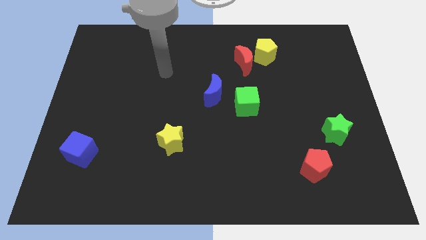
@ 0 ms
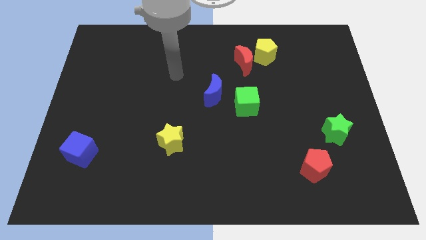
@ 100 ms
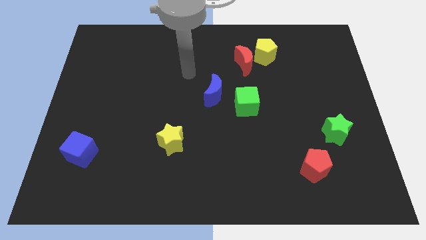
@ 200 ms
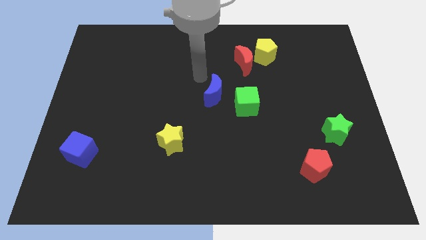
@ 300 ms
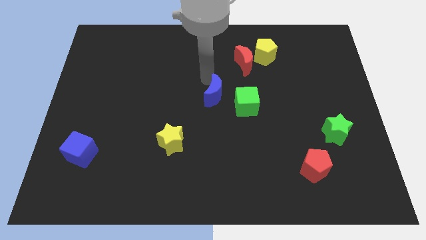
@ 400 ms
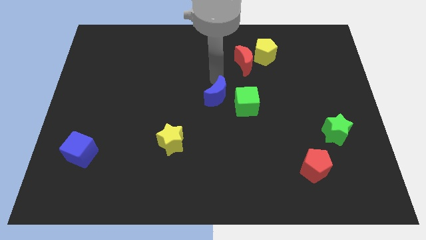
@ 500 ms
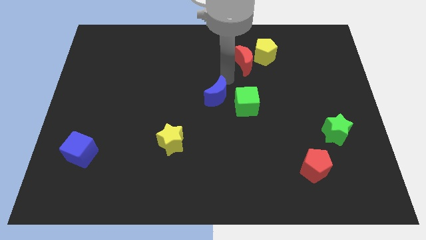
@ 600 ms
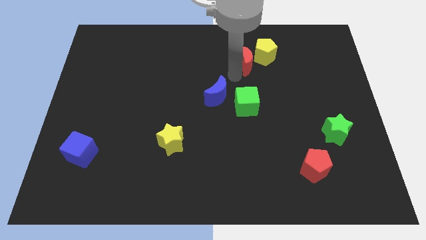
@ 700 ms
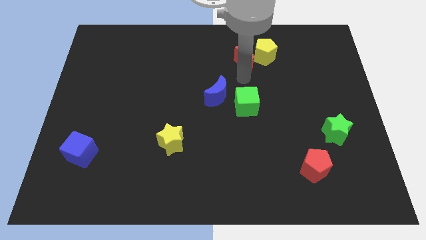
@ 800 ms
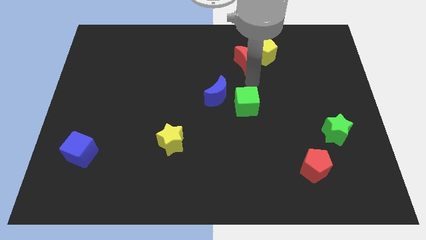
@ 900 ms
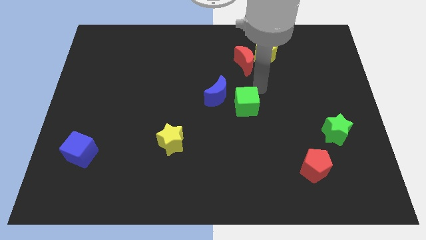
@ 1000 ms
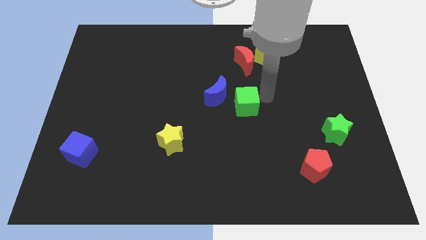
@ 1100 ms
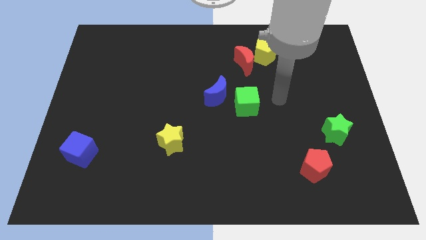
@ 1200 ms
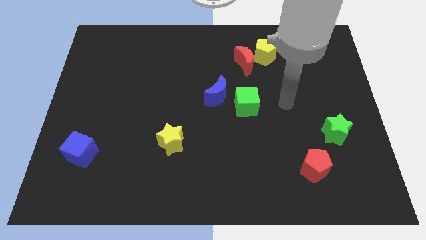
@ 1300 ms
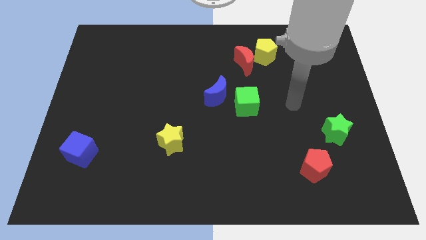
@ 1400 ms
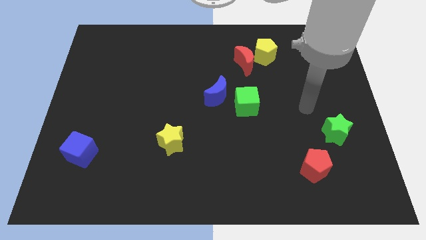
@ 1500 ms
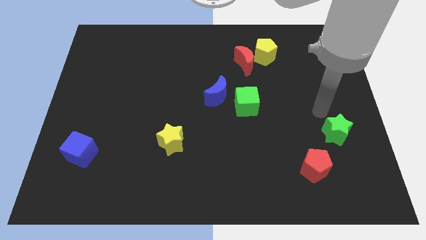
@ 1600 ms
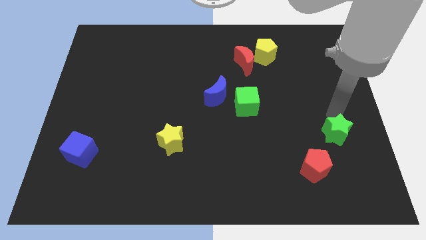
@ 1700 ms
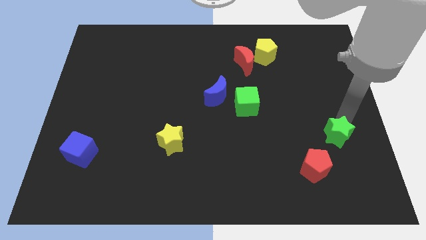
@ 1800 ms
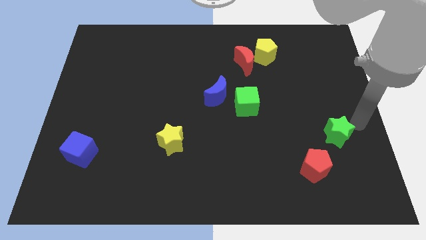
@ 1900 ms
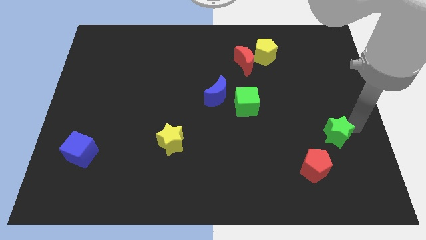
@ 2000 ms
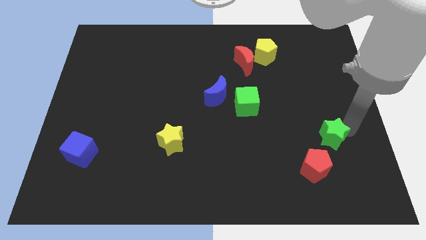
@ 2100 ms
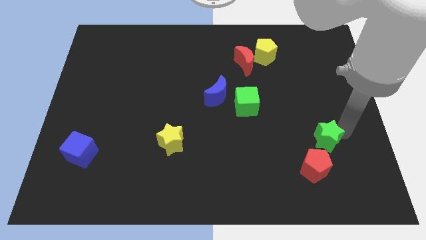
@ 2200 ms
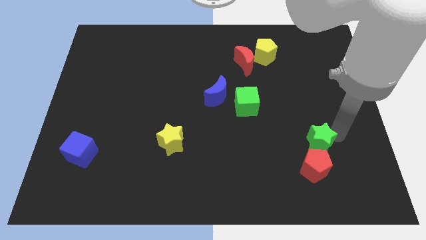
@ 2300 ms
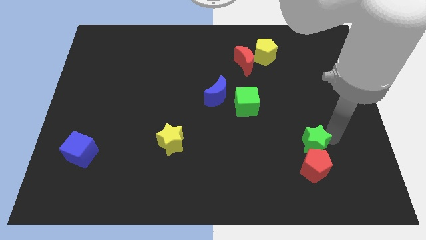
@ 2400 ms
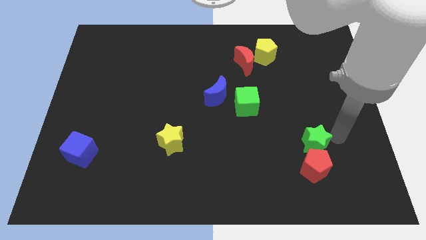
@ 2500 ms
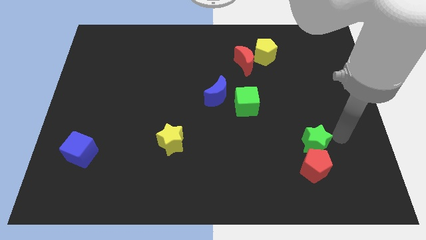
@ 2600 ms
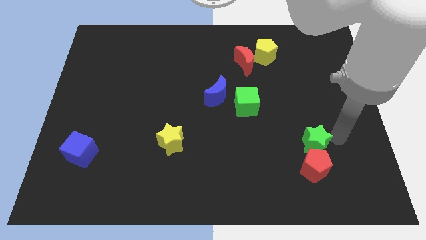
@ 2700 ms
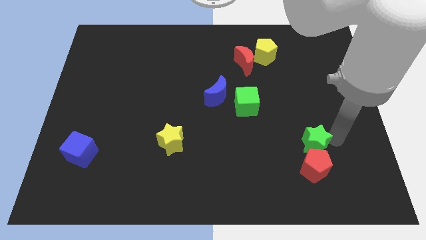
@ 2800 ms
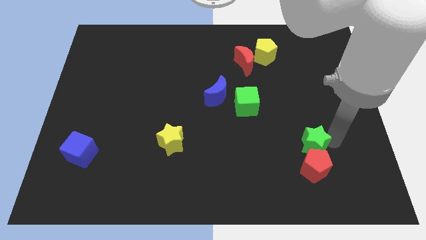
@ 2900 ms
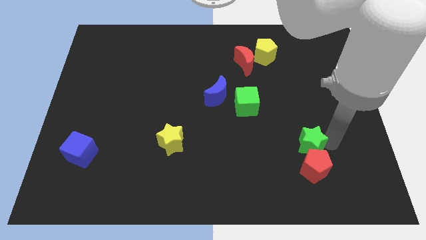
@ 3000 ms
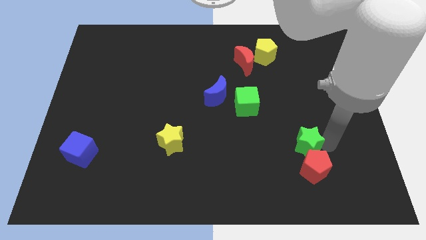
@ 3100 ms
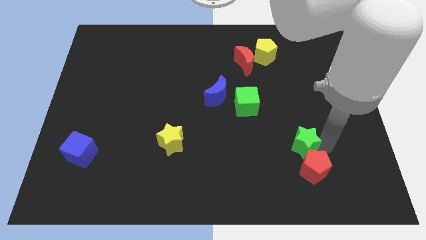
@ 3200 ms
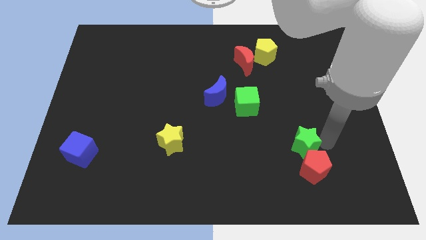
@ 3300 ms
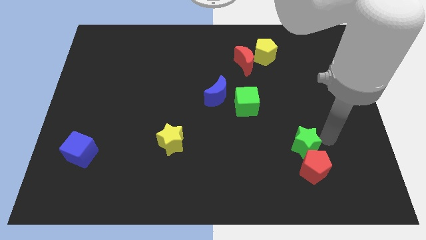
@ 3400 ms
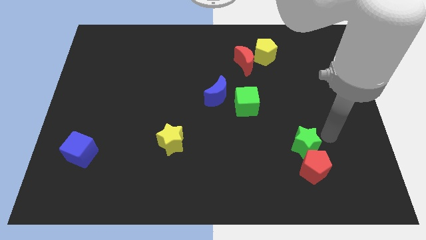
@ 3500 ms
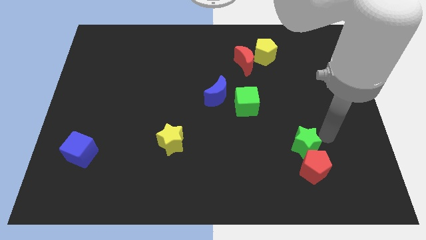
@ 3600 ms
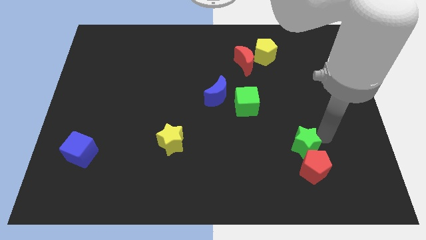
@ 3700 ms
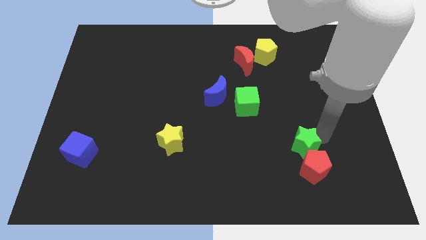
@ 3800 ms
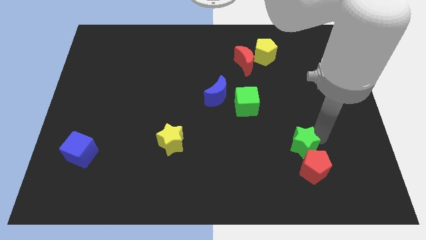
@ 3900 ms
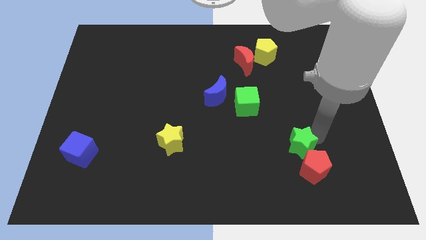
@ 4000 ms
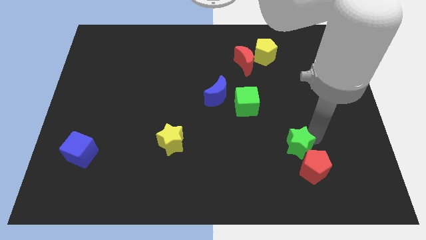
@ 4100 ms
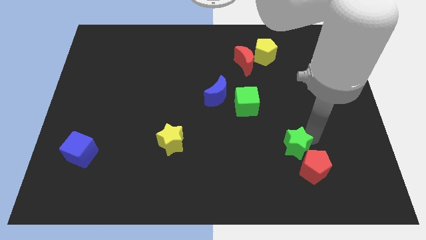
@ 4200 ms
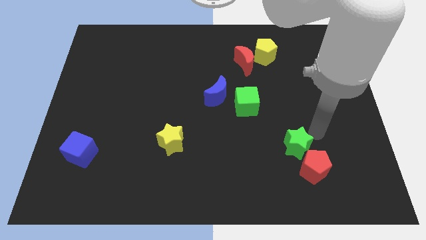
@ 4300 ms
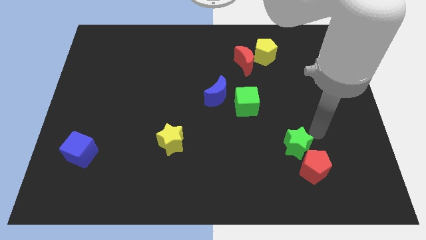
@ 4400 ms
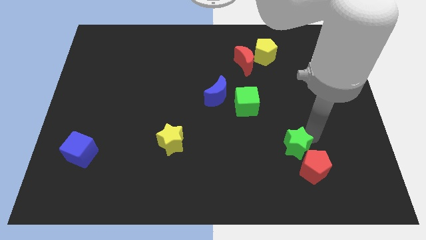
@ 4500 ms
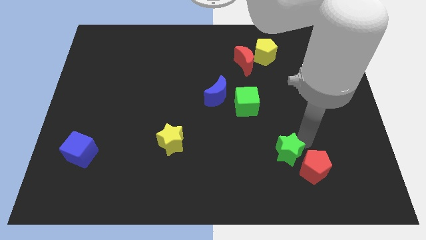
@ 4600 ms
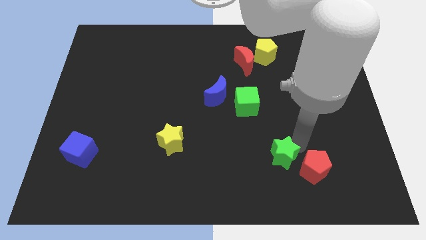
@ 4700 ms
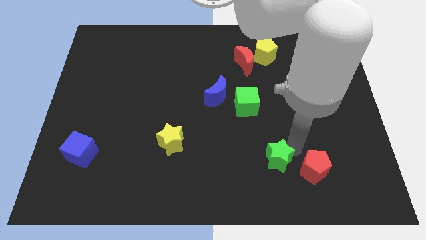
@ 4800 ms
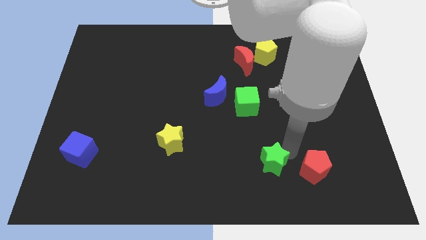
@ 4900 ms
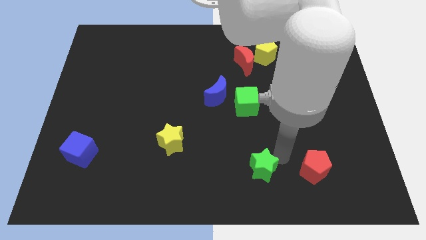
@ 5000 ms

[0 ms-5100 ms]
push the green star to the bottom side

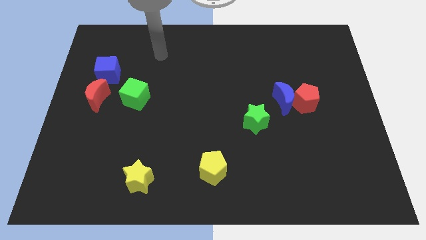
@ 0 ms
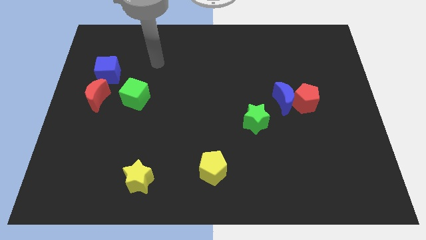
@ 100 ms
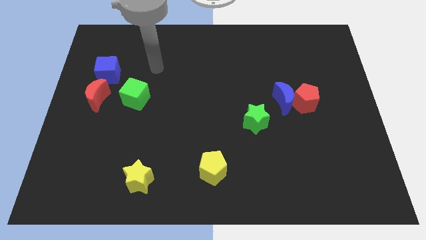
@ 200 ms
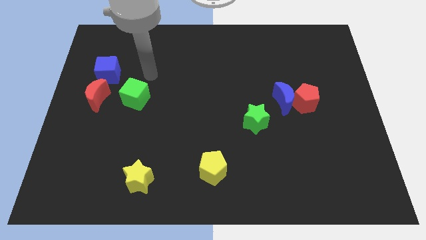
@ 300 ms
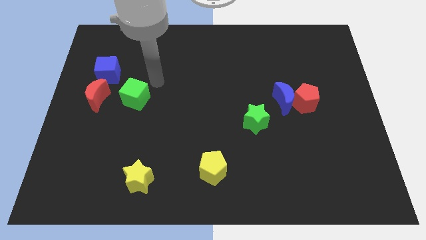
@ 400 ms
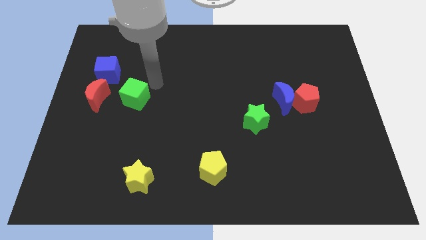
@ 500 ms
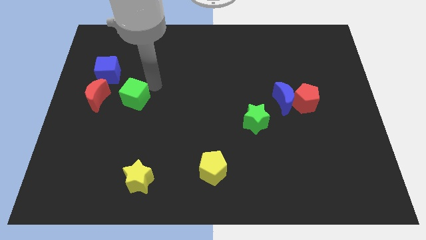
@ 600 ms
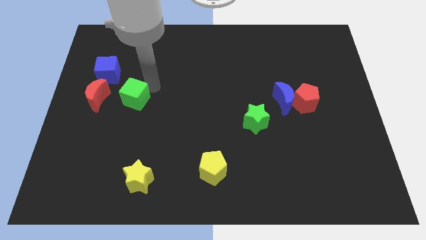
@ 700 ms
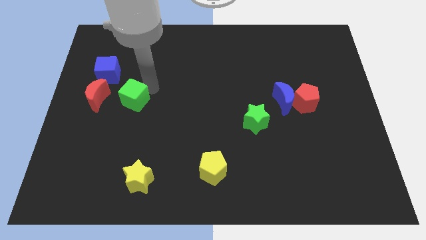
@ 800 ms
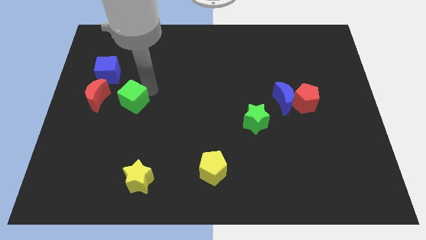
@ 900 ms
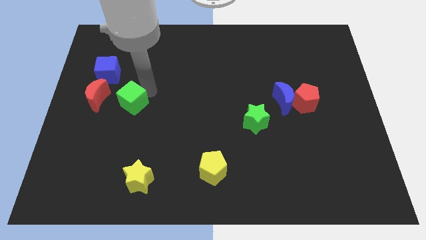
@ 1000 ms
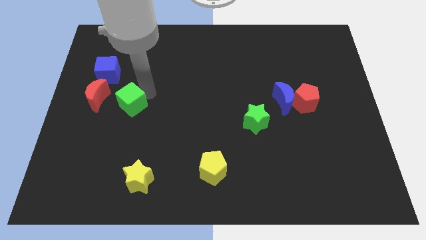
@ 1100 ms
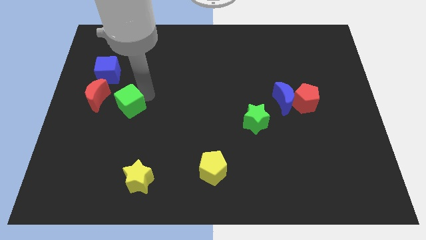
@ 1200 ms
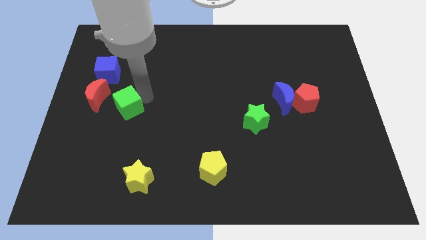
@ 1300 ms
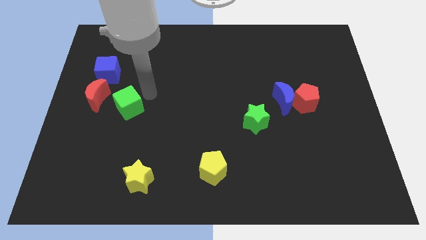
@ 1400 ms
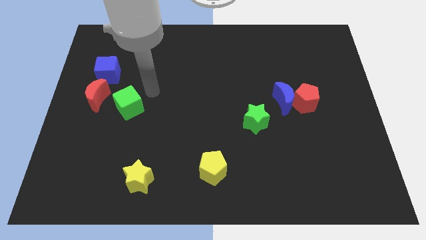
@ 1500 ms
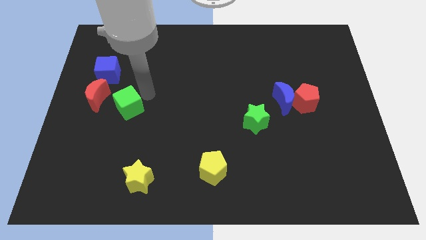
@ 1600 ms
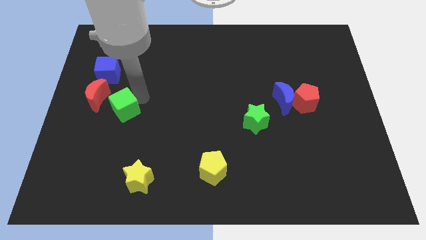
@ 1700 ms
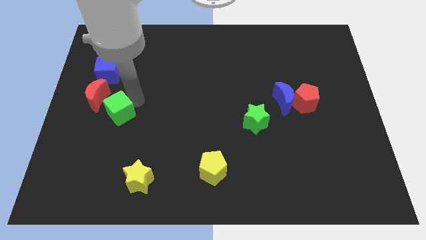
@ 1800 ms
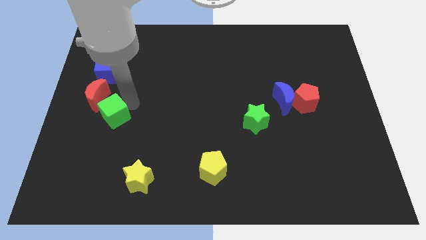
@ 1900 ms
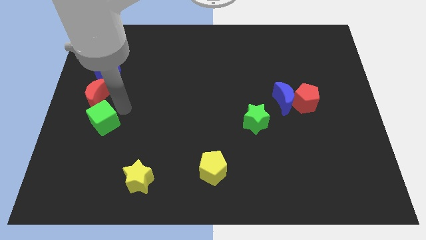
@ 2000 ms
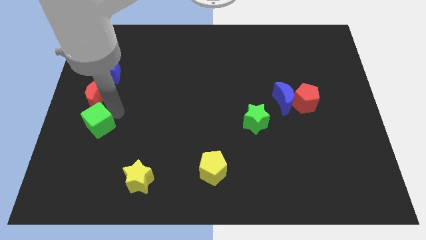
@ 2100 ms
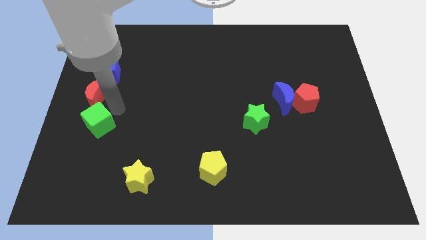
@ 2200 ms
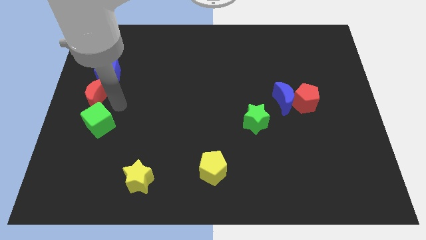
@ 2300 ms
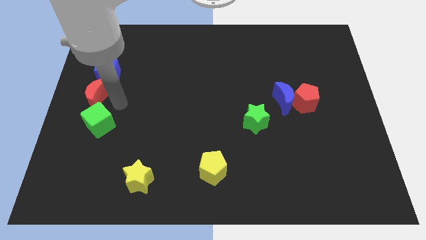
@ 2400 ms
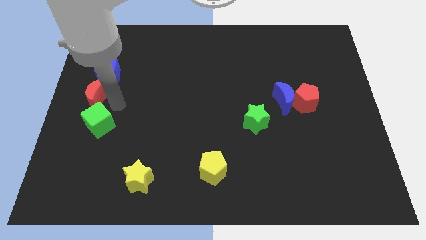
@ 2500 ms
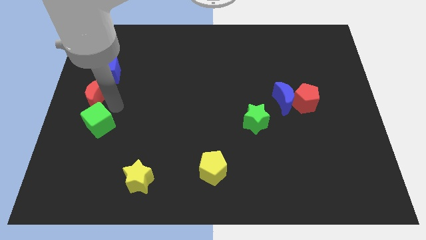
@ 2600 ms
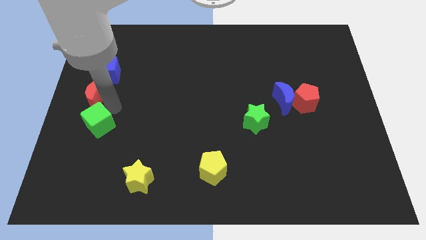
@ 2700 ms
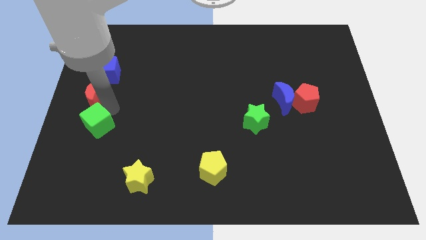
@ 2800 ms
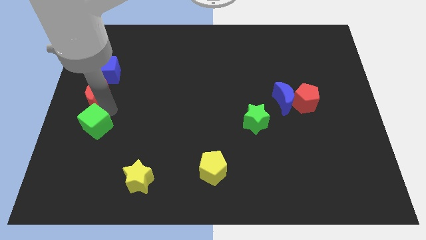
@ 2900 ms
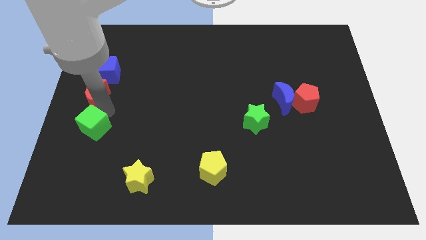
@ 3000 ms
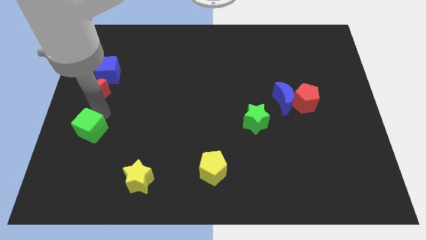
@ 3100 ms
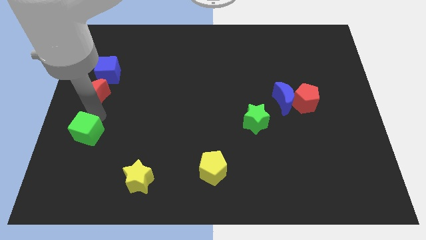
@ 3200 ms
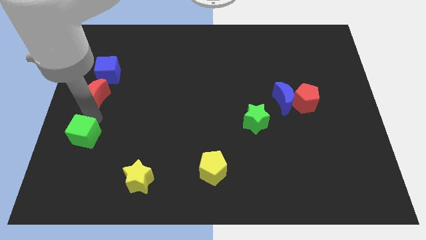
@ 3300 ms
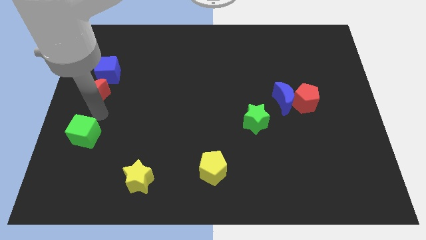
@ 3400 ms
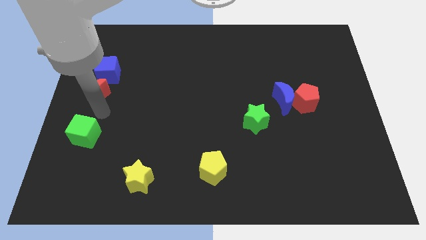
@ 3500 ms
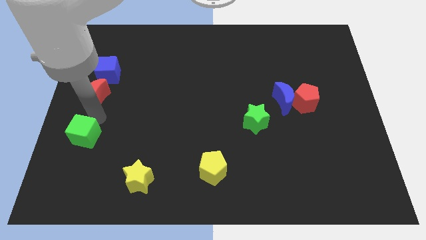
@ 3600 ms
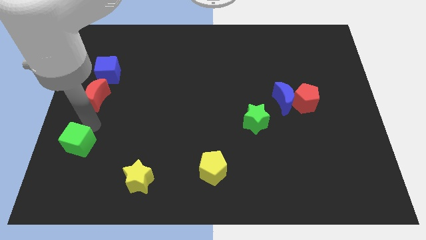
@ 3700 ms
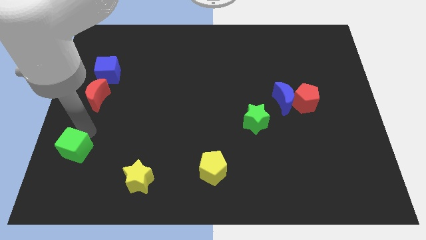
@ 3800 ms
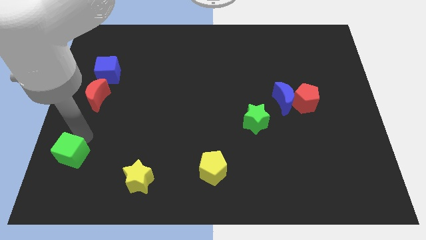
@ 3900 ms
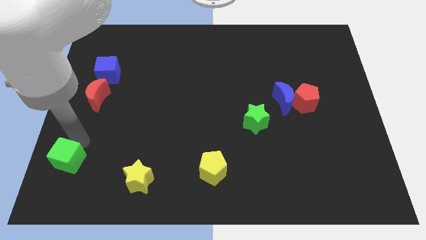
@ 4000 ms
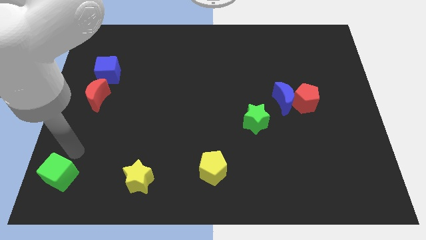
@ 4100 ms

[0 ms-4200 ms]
put the green cube to the lower left corner
